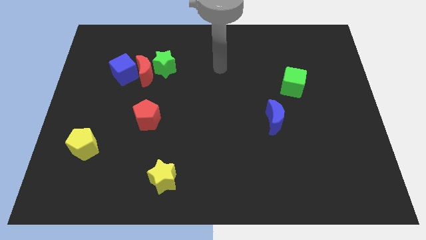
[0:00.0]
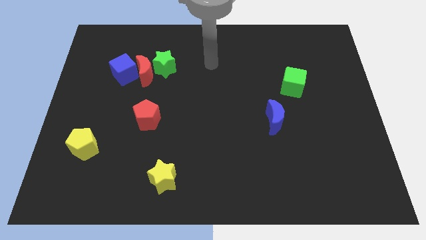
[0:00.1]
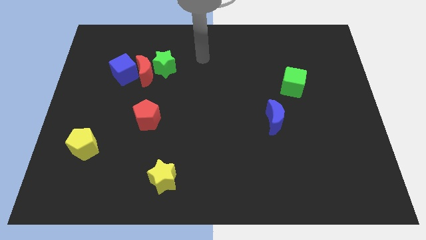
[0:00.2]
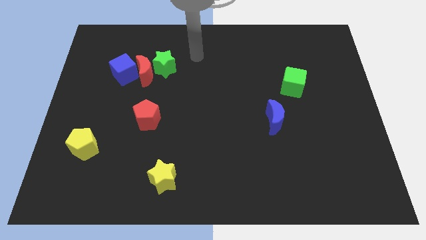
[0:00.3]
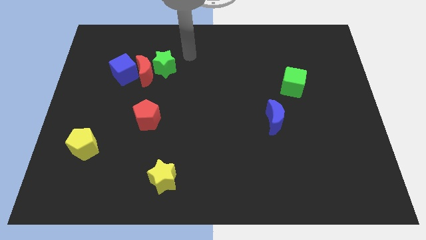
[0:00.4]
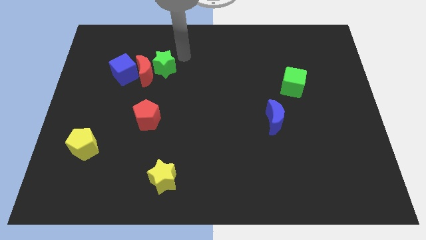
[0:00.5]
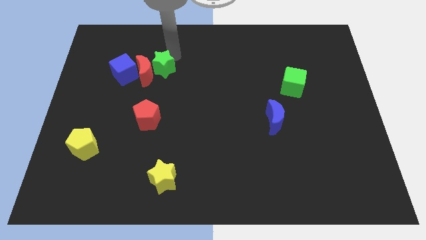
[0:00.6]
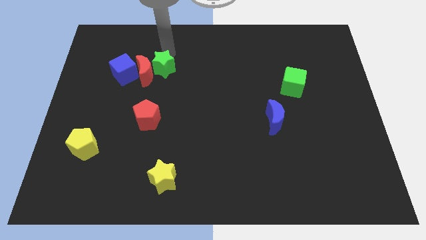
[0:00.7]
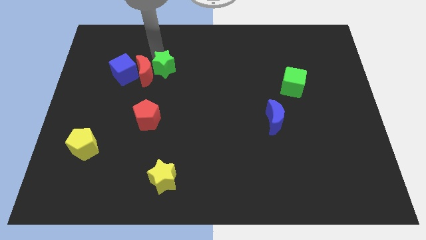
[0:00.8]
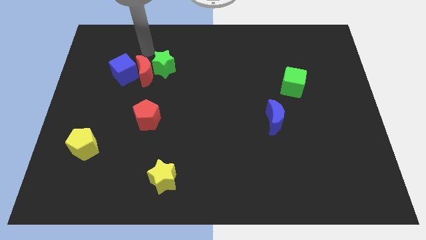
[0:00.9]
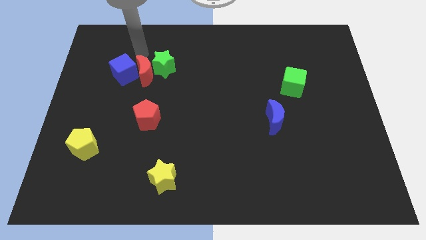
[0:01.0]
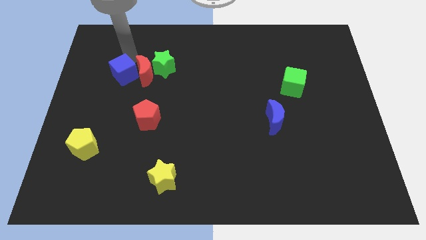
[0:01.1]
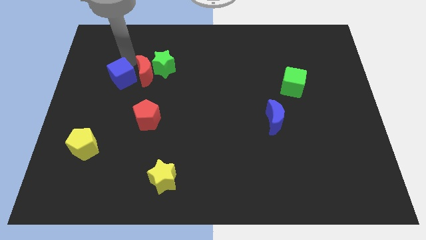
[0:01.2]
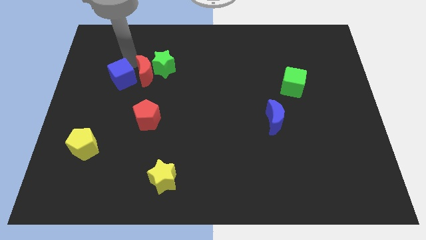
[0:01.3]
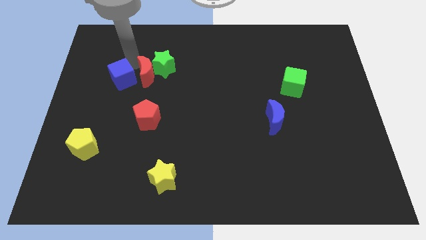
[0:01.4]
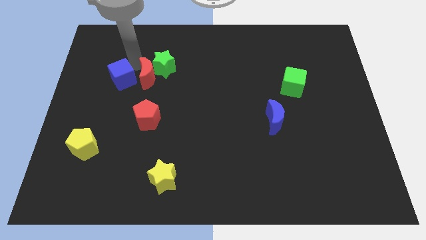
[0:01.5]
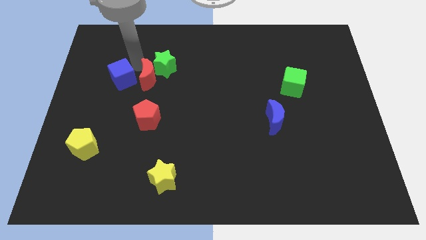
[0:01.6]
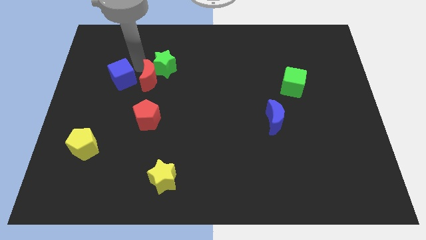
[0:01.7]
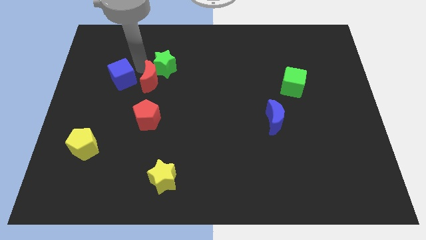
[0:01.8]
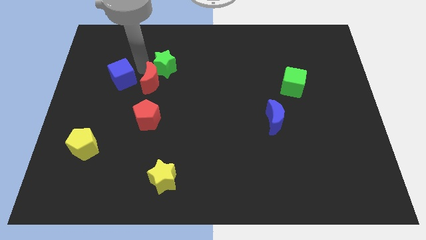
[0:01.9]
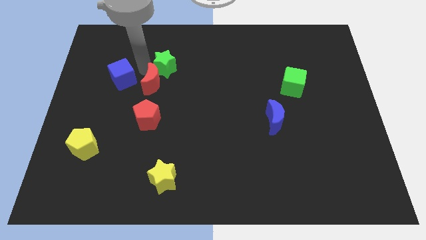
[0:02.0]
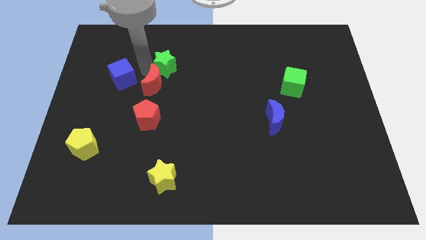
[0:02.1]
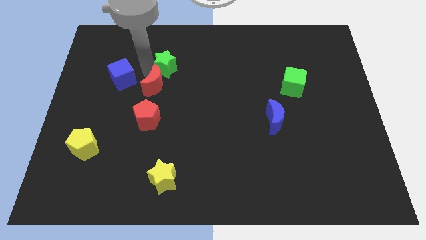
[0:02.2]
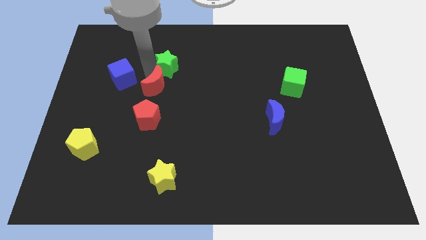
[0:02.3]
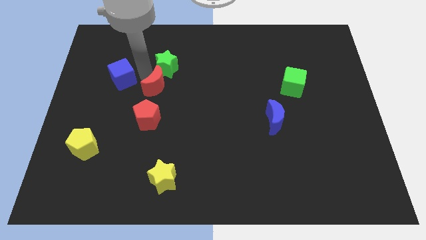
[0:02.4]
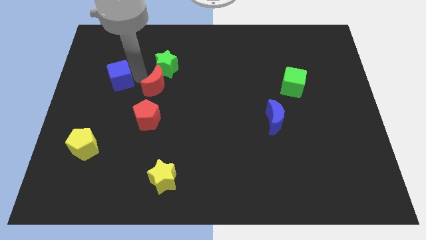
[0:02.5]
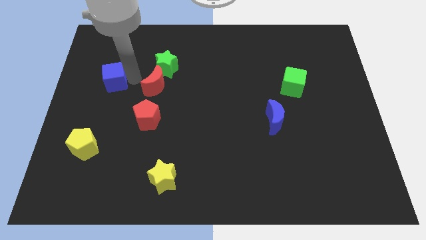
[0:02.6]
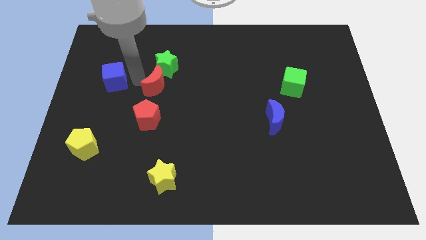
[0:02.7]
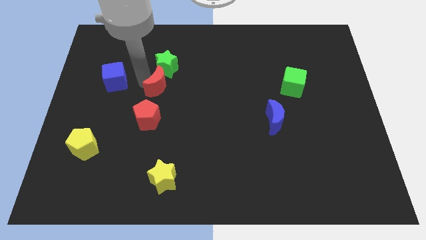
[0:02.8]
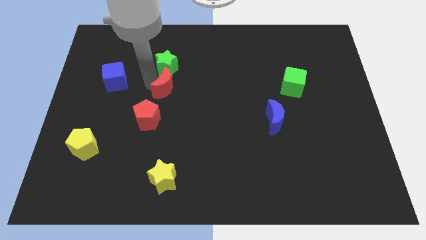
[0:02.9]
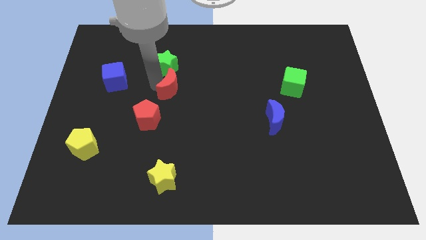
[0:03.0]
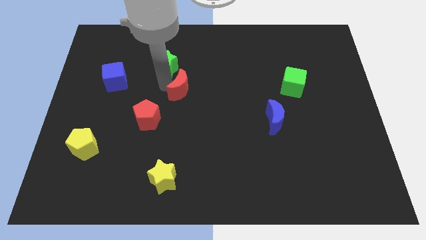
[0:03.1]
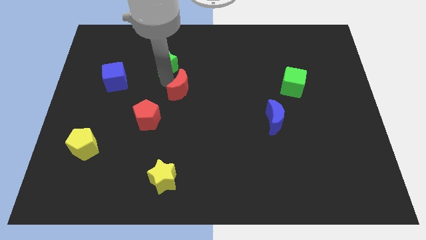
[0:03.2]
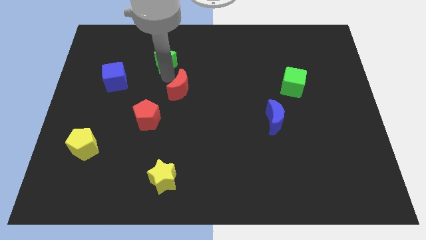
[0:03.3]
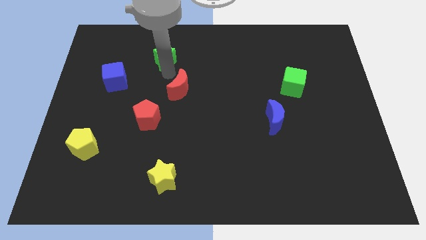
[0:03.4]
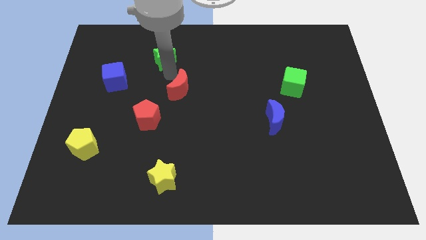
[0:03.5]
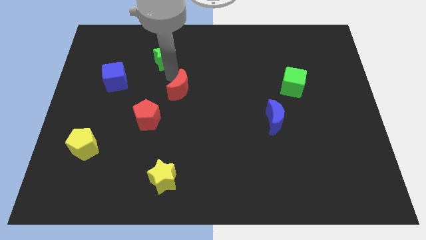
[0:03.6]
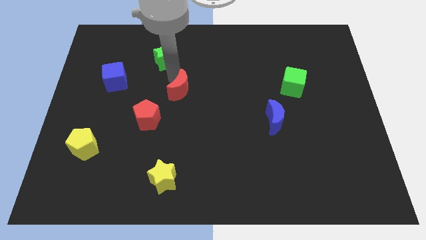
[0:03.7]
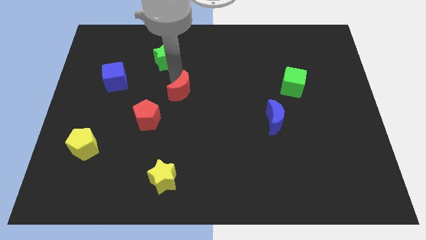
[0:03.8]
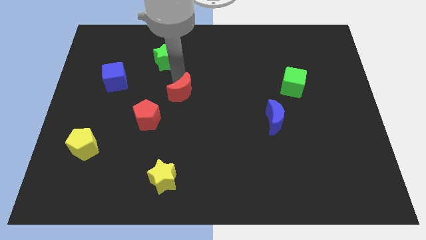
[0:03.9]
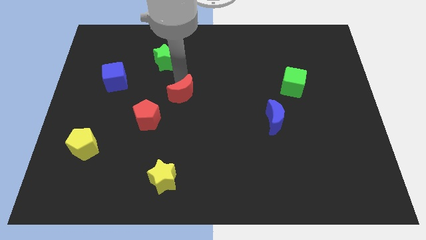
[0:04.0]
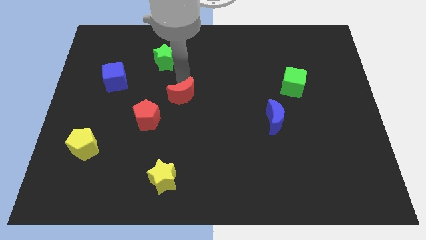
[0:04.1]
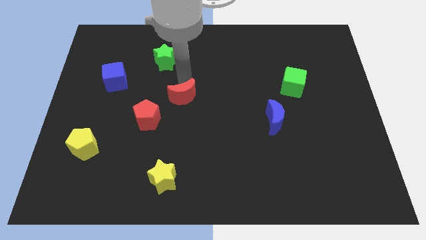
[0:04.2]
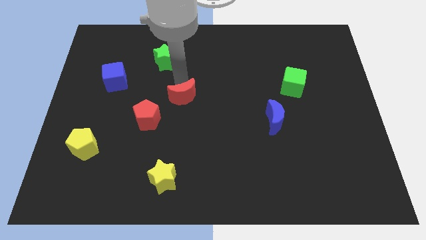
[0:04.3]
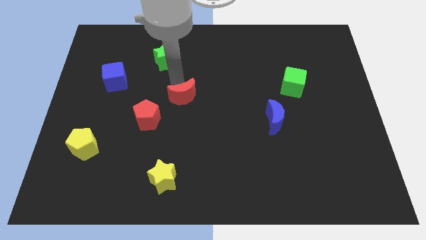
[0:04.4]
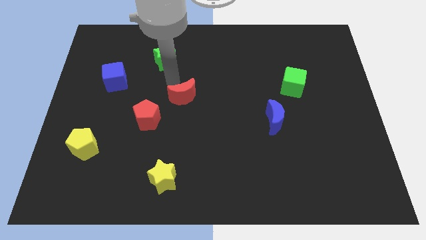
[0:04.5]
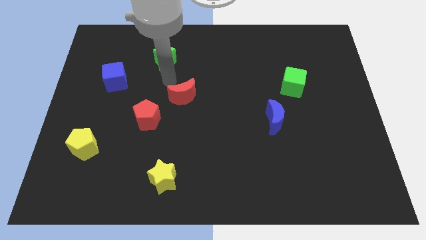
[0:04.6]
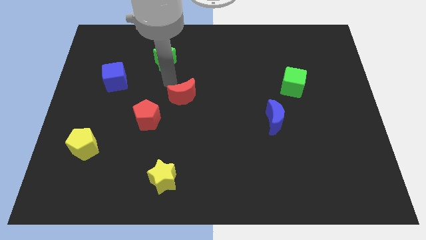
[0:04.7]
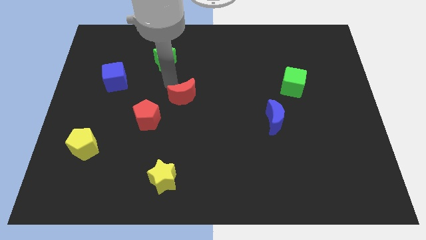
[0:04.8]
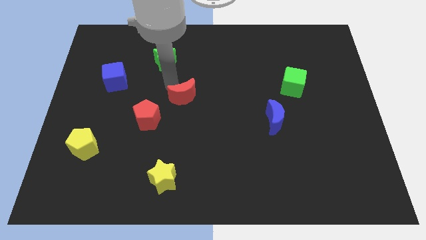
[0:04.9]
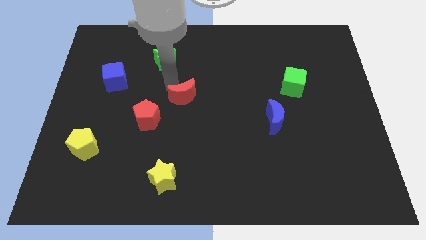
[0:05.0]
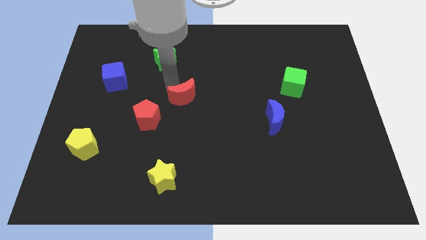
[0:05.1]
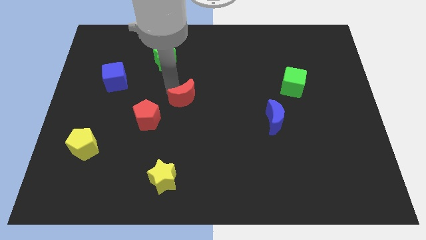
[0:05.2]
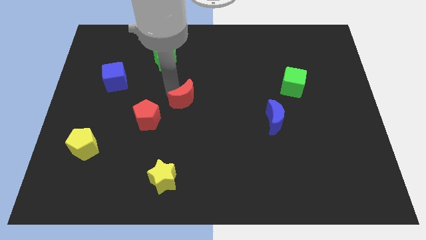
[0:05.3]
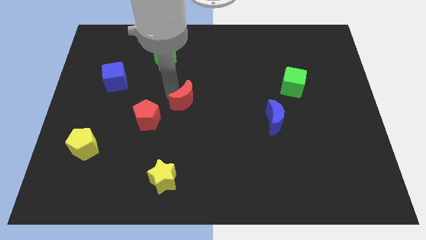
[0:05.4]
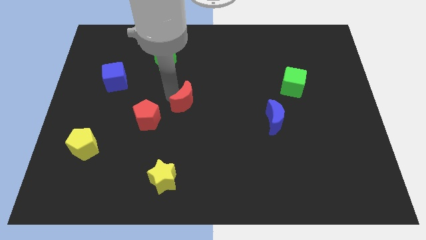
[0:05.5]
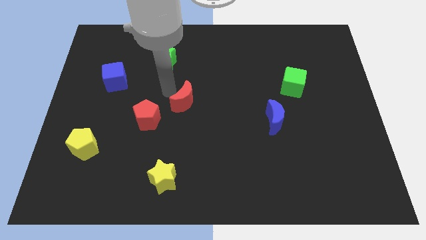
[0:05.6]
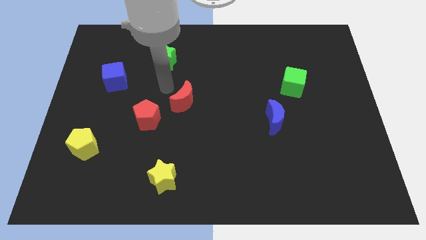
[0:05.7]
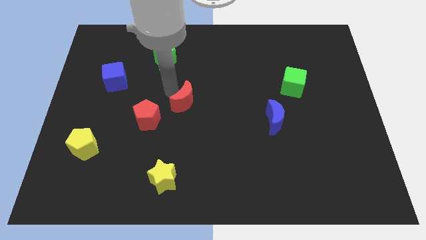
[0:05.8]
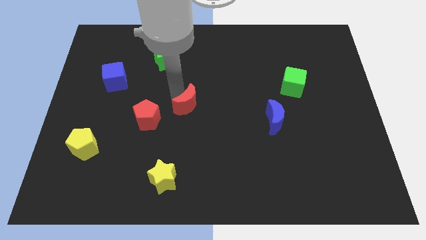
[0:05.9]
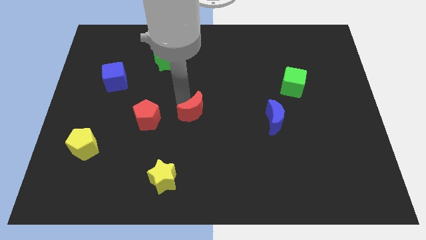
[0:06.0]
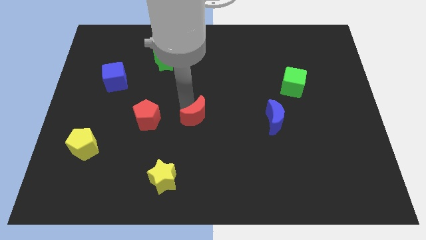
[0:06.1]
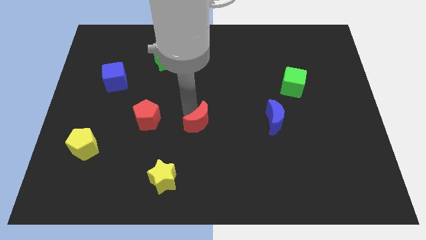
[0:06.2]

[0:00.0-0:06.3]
move the red moon downwards and then right

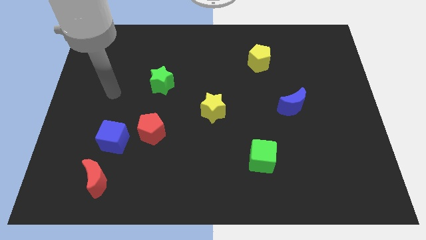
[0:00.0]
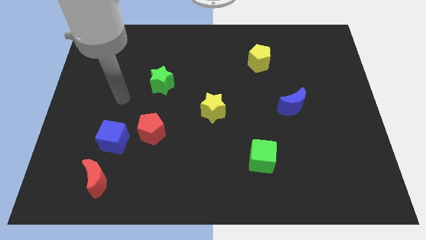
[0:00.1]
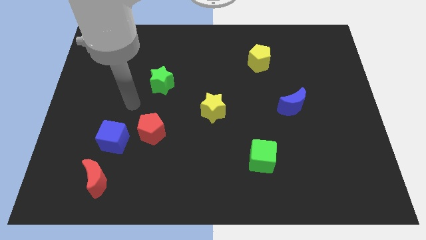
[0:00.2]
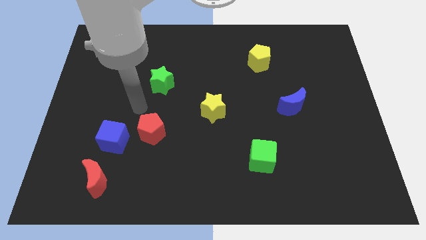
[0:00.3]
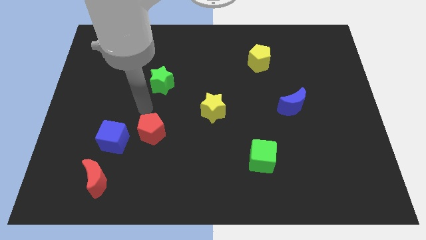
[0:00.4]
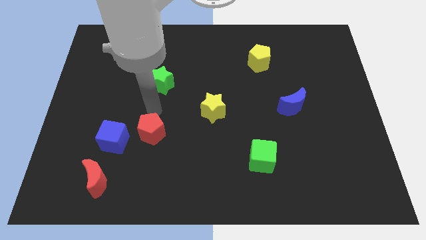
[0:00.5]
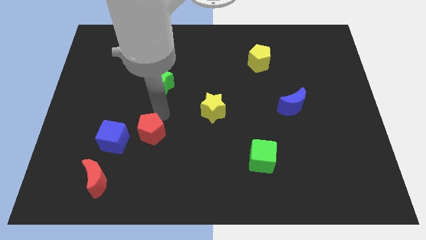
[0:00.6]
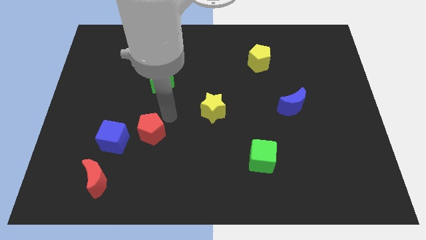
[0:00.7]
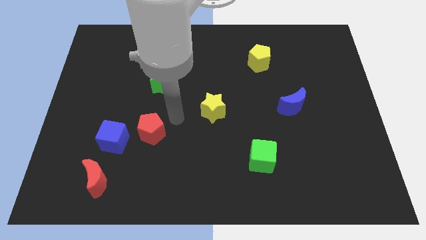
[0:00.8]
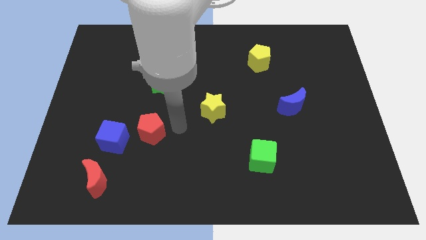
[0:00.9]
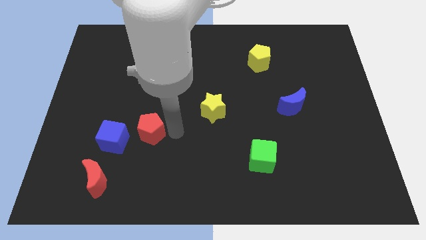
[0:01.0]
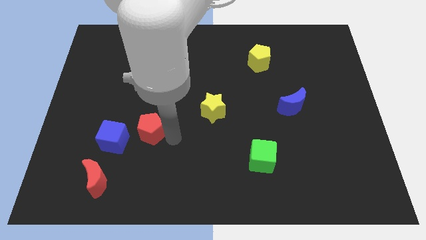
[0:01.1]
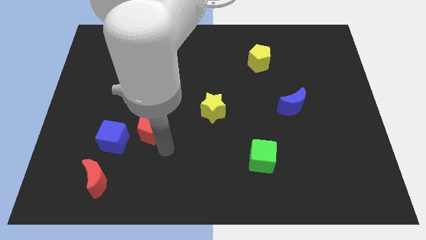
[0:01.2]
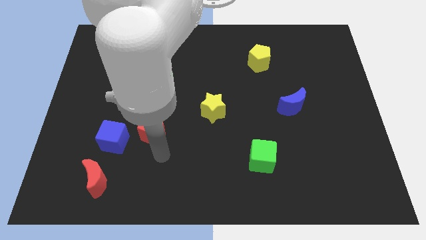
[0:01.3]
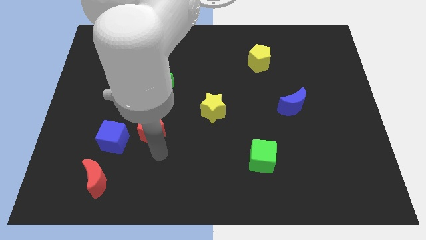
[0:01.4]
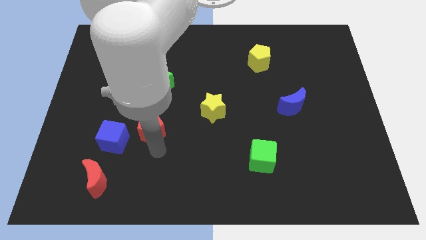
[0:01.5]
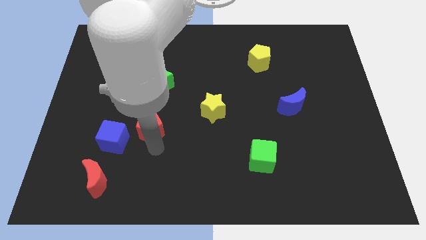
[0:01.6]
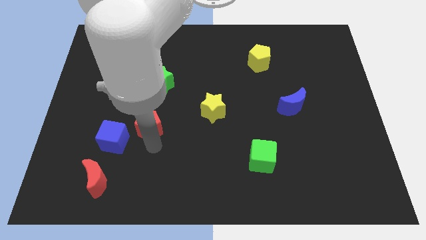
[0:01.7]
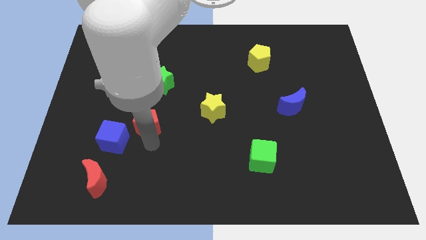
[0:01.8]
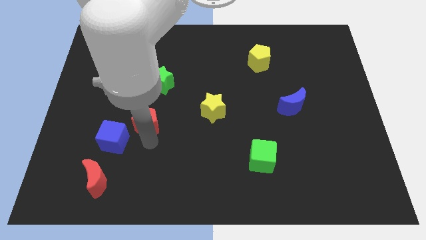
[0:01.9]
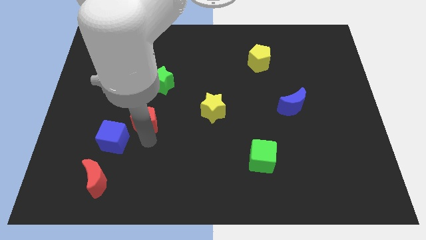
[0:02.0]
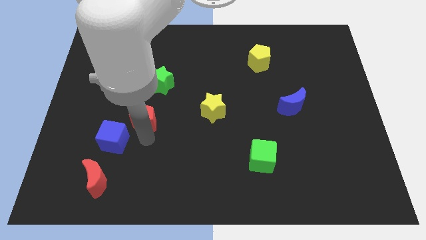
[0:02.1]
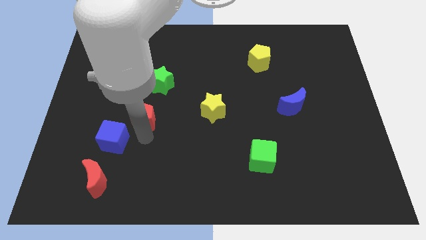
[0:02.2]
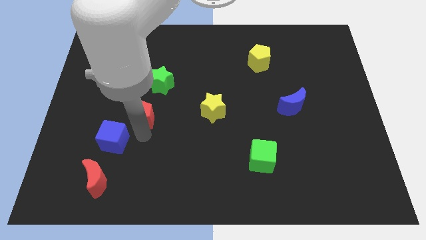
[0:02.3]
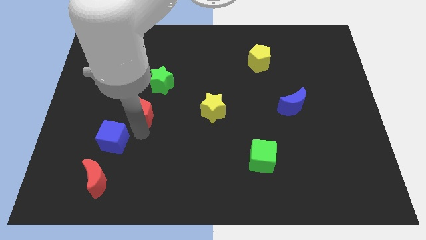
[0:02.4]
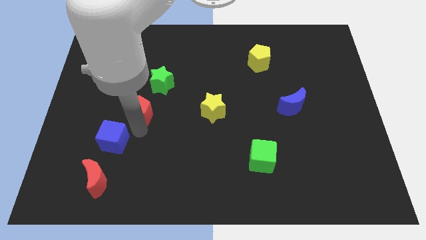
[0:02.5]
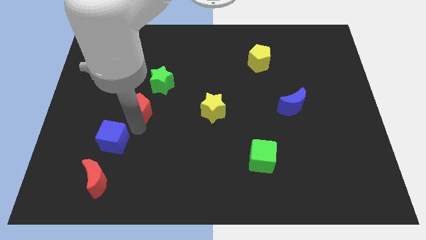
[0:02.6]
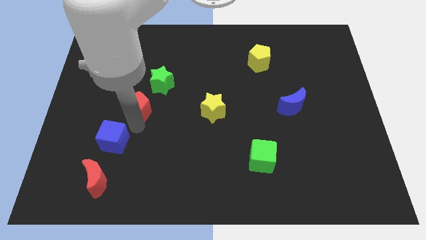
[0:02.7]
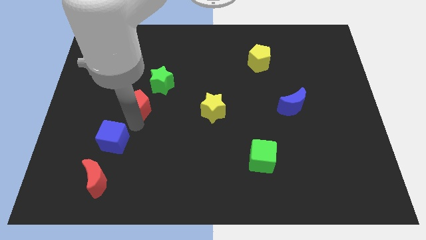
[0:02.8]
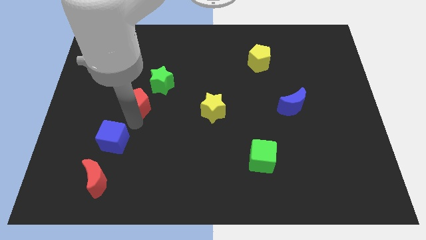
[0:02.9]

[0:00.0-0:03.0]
move the red pentagon up slightly
